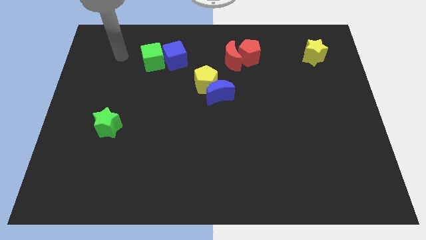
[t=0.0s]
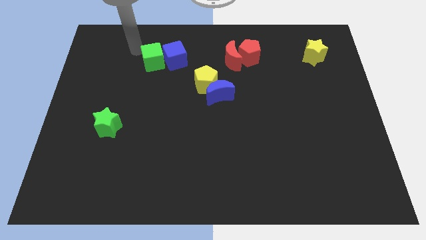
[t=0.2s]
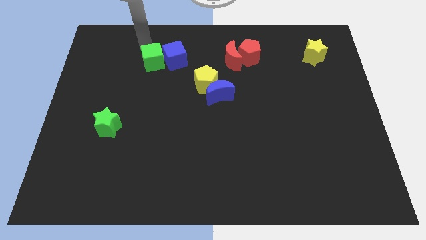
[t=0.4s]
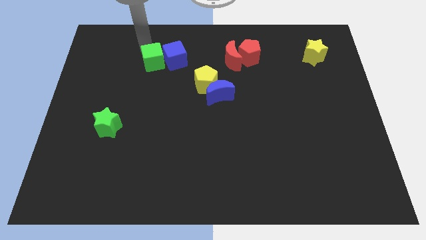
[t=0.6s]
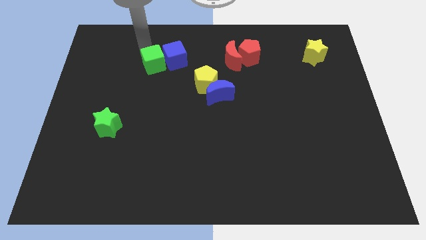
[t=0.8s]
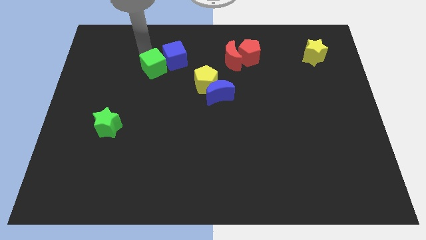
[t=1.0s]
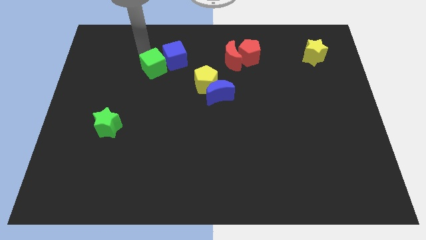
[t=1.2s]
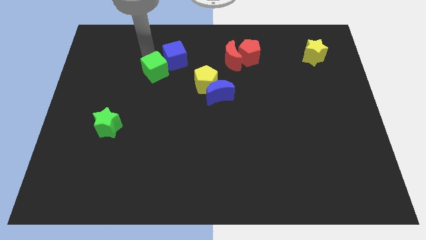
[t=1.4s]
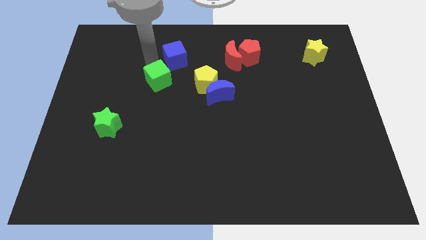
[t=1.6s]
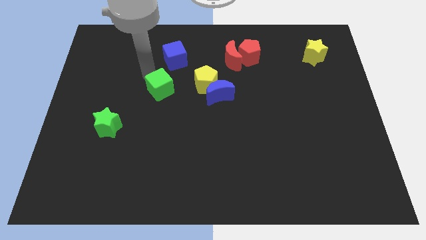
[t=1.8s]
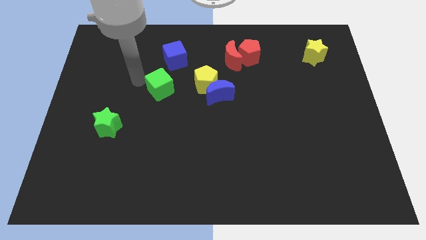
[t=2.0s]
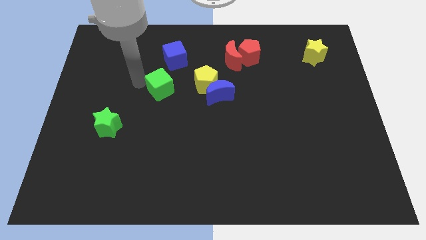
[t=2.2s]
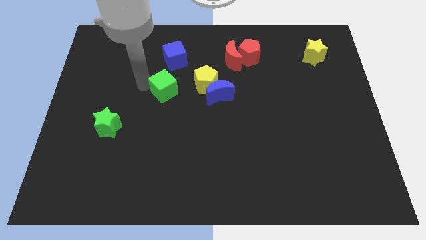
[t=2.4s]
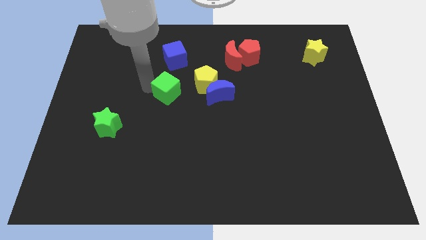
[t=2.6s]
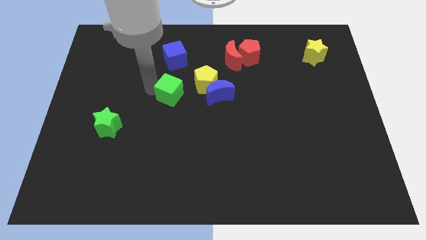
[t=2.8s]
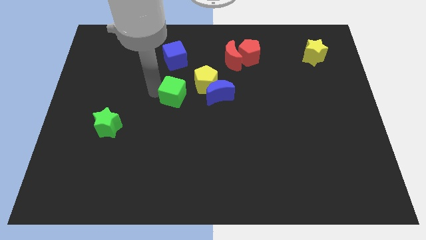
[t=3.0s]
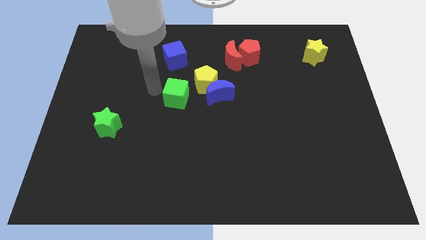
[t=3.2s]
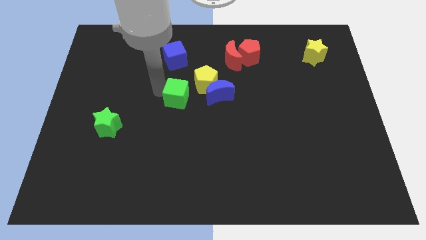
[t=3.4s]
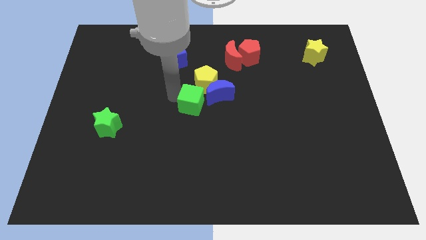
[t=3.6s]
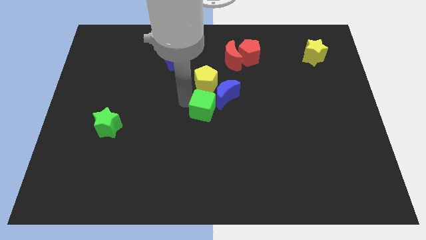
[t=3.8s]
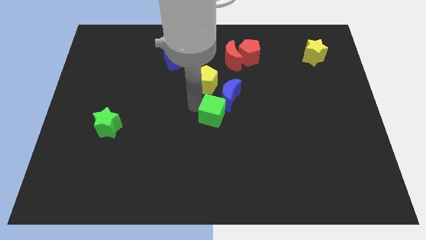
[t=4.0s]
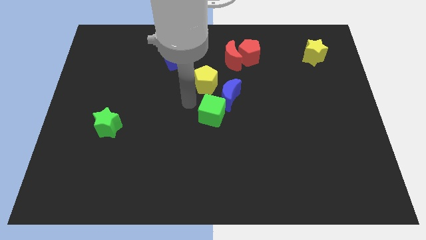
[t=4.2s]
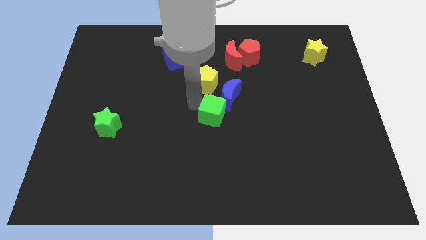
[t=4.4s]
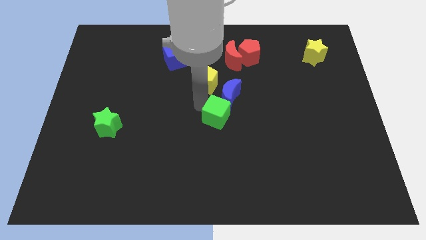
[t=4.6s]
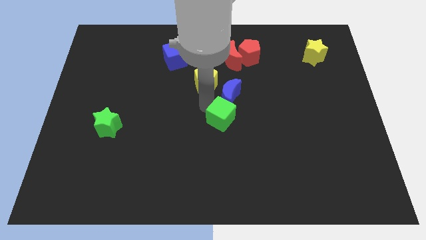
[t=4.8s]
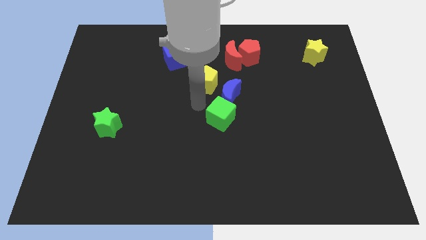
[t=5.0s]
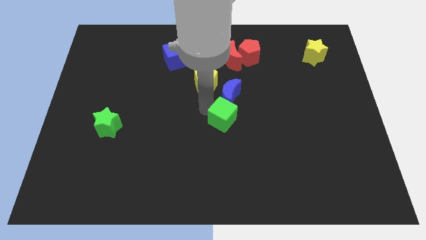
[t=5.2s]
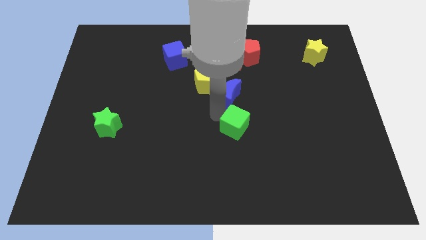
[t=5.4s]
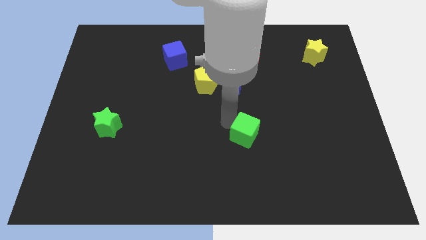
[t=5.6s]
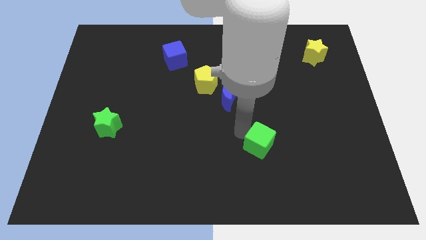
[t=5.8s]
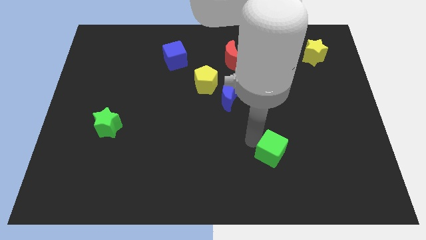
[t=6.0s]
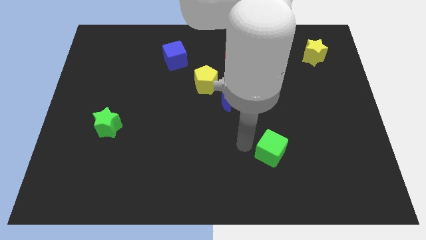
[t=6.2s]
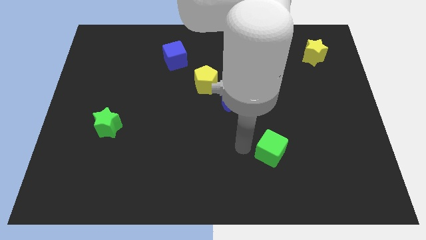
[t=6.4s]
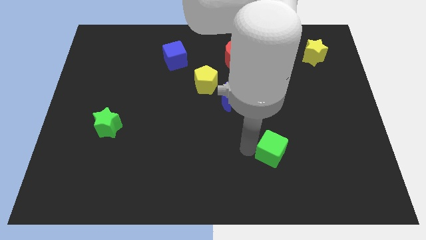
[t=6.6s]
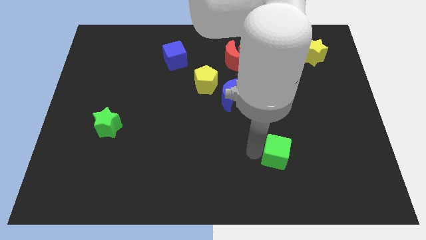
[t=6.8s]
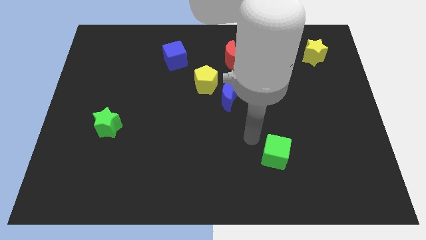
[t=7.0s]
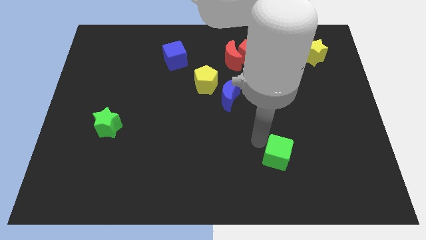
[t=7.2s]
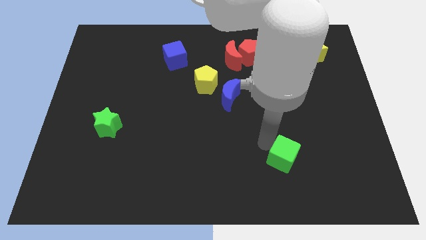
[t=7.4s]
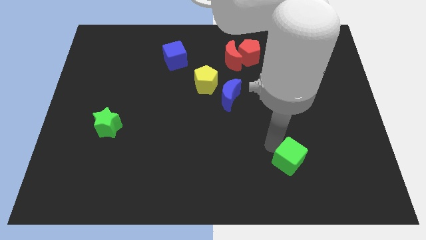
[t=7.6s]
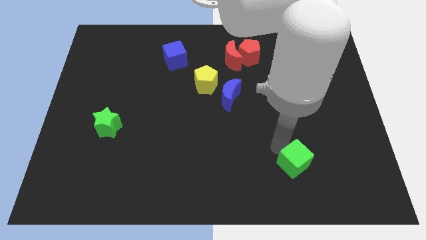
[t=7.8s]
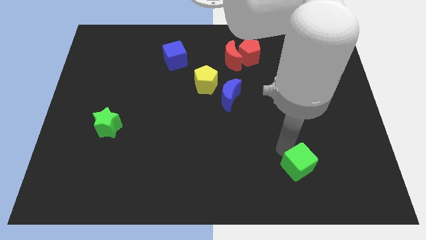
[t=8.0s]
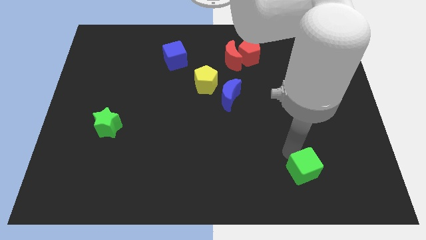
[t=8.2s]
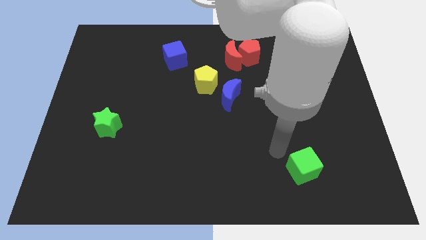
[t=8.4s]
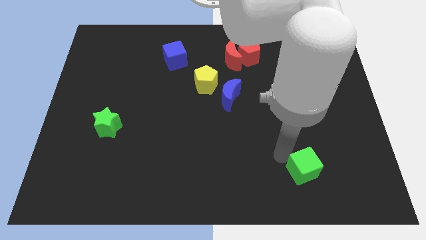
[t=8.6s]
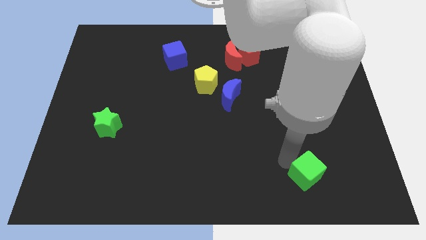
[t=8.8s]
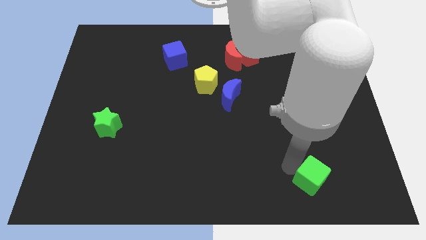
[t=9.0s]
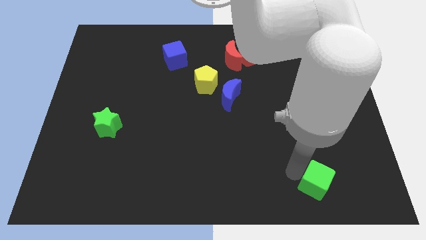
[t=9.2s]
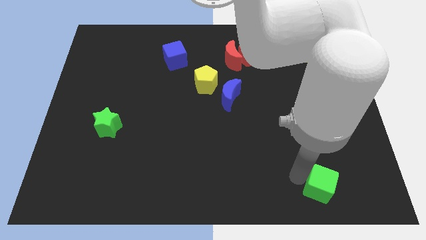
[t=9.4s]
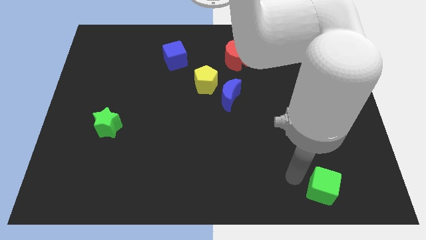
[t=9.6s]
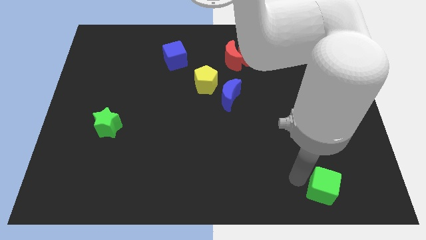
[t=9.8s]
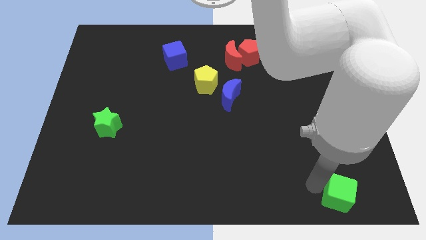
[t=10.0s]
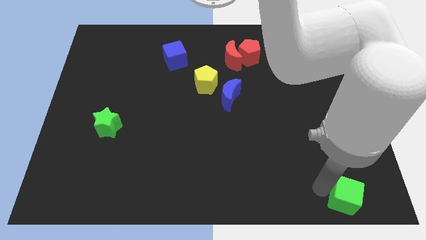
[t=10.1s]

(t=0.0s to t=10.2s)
put the green cube to the bottom right of the board

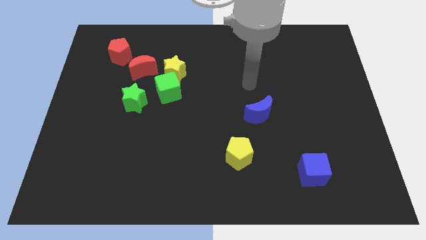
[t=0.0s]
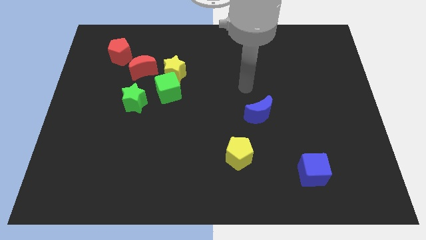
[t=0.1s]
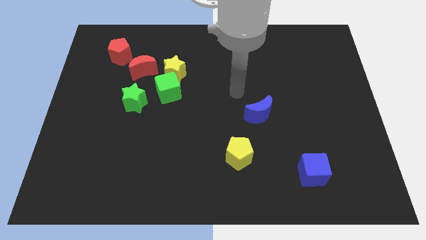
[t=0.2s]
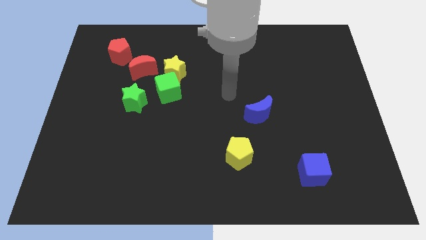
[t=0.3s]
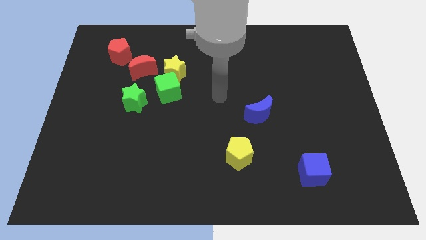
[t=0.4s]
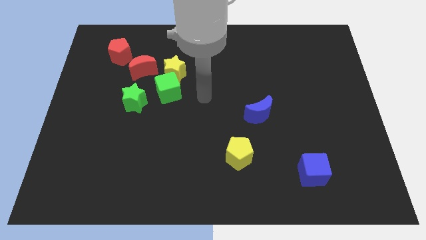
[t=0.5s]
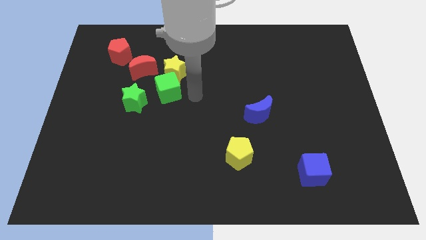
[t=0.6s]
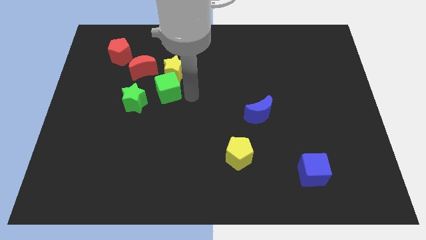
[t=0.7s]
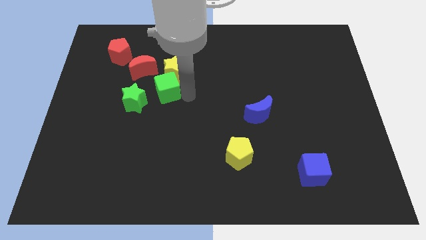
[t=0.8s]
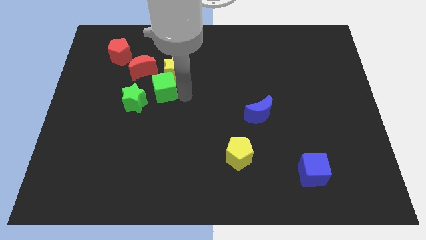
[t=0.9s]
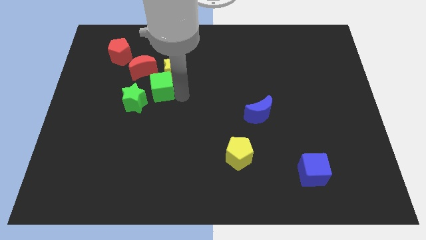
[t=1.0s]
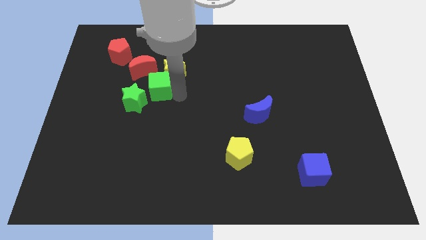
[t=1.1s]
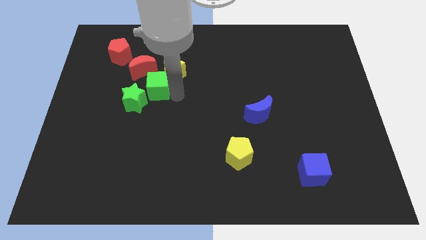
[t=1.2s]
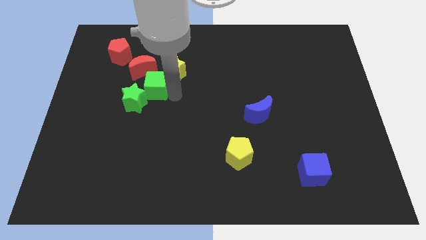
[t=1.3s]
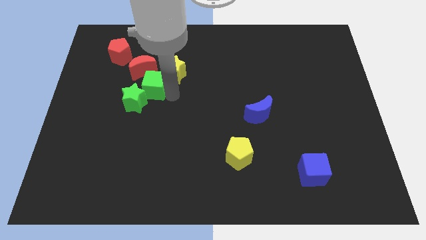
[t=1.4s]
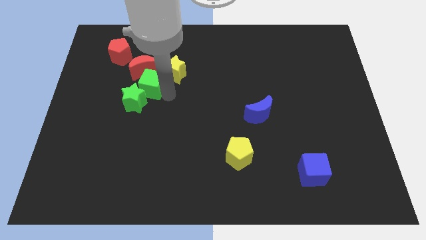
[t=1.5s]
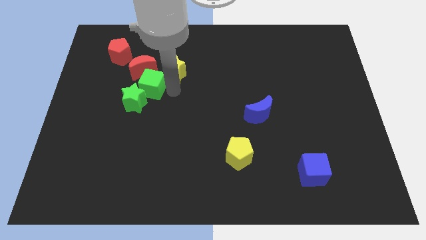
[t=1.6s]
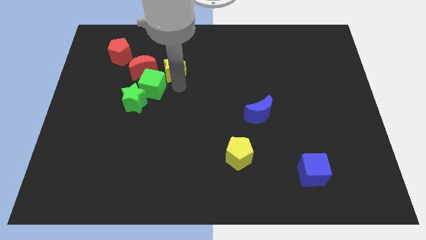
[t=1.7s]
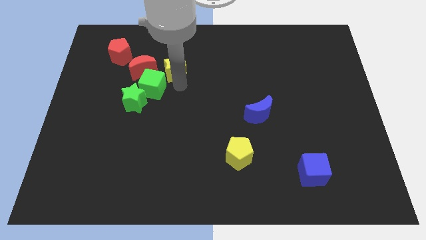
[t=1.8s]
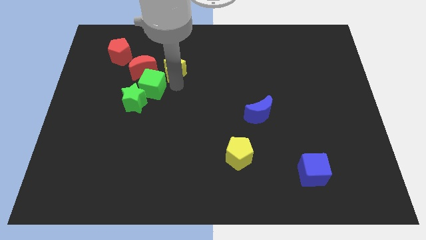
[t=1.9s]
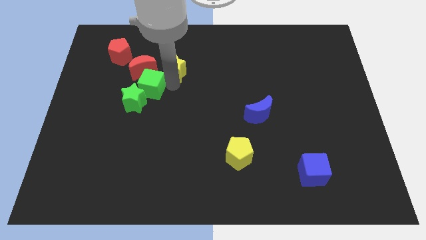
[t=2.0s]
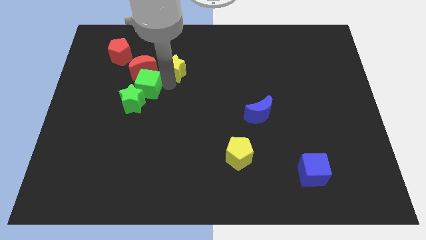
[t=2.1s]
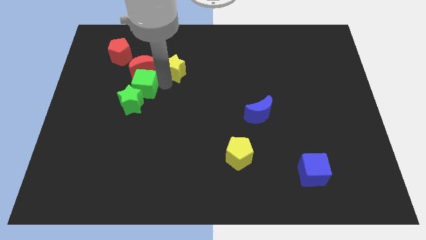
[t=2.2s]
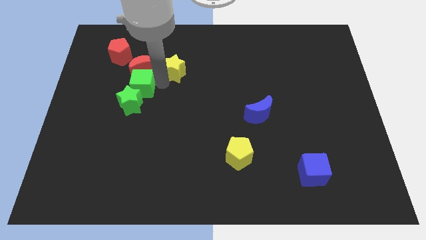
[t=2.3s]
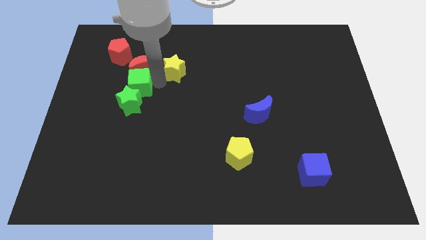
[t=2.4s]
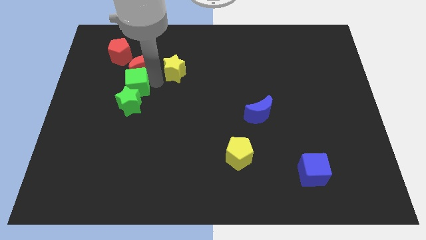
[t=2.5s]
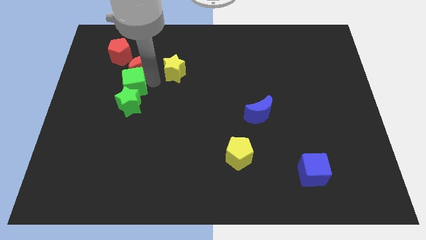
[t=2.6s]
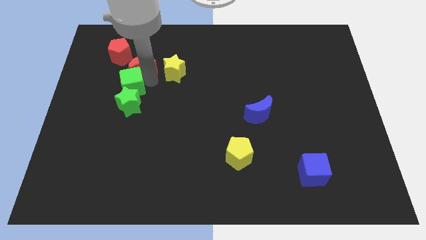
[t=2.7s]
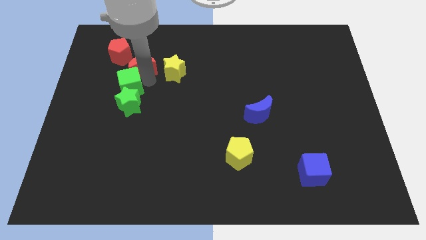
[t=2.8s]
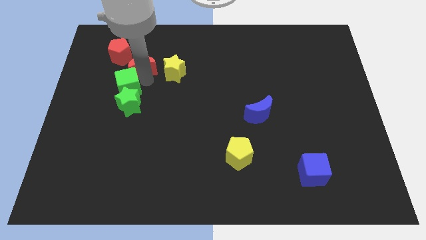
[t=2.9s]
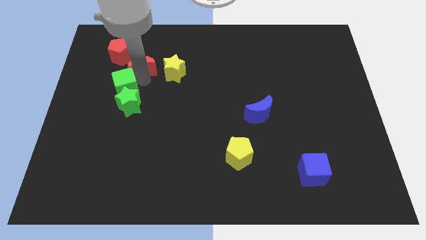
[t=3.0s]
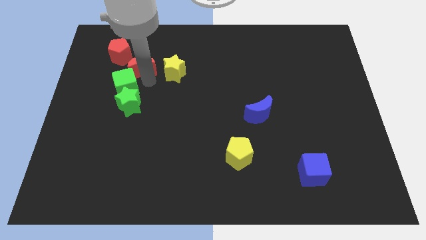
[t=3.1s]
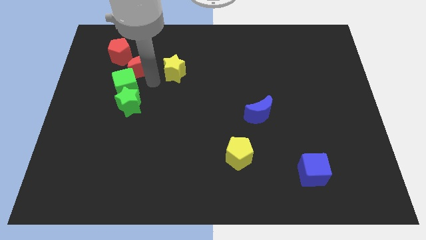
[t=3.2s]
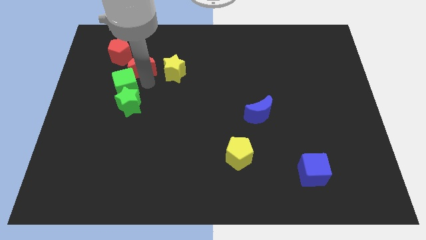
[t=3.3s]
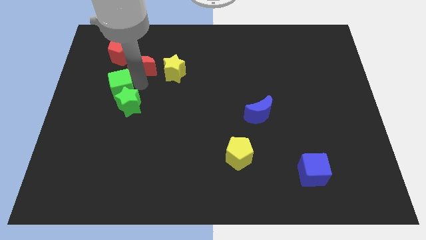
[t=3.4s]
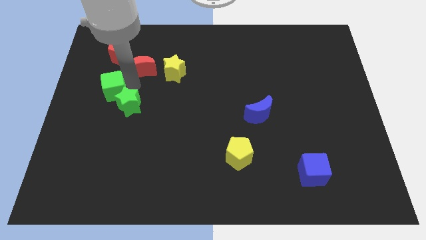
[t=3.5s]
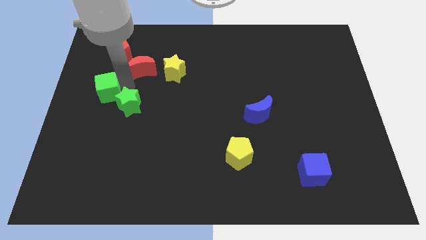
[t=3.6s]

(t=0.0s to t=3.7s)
push the green cube to the left side
